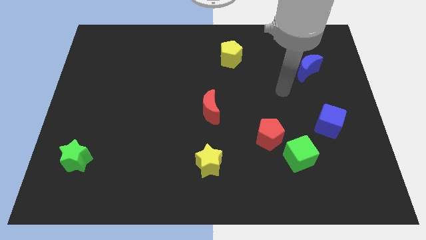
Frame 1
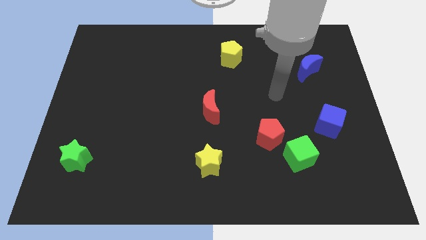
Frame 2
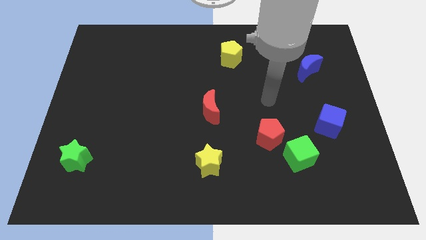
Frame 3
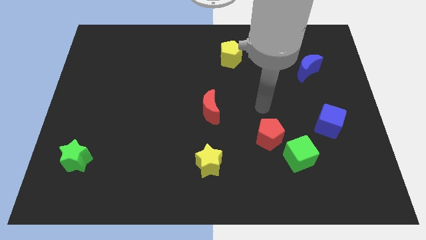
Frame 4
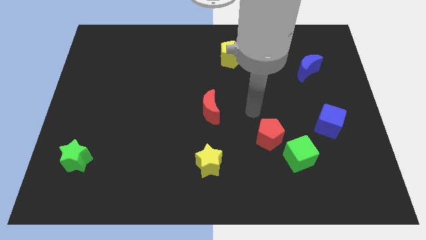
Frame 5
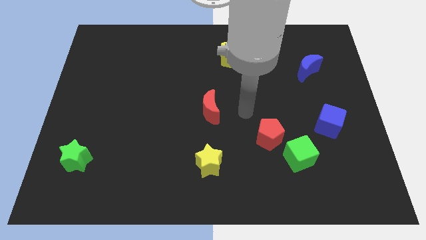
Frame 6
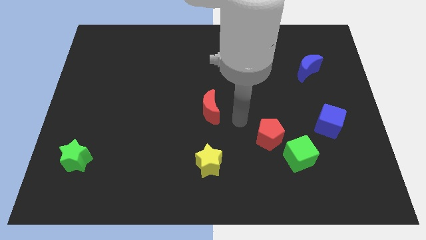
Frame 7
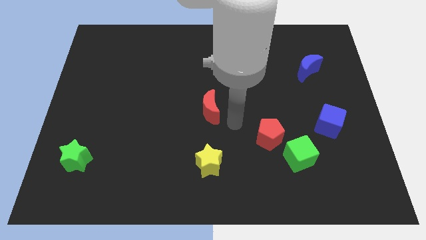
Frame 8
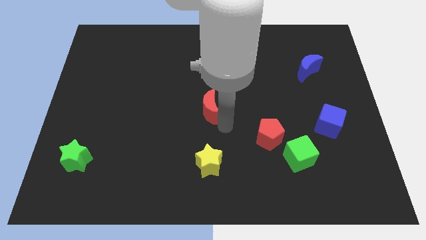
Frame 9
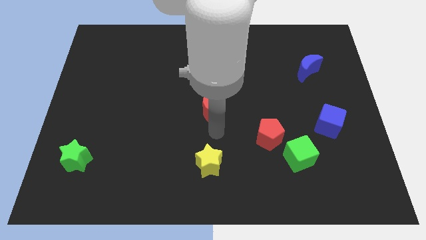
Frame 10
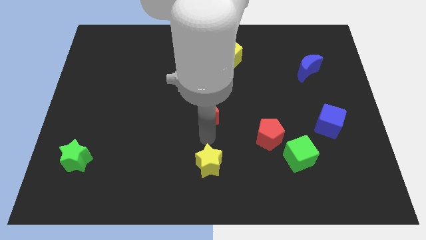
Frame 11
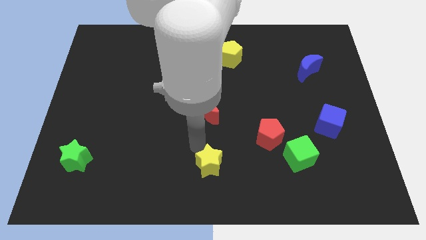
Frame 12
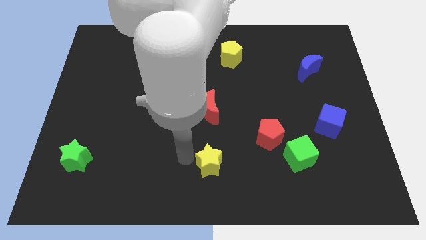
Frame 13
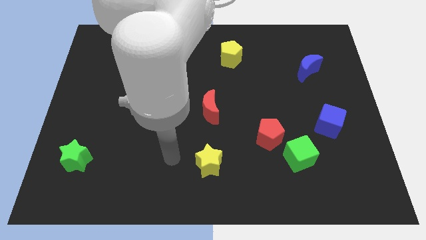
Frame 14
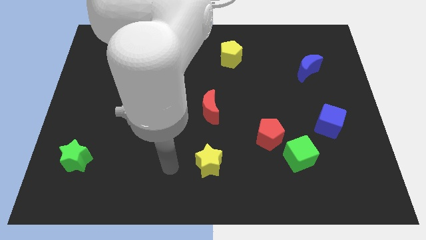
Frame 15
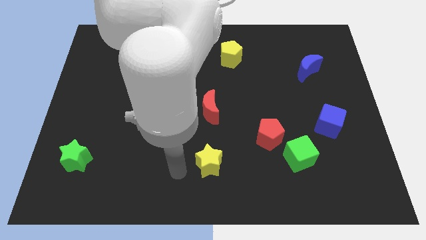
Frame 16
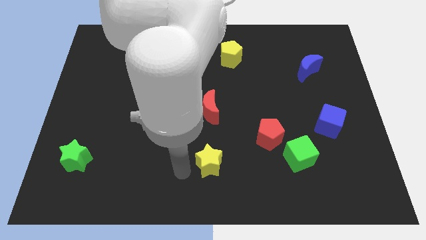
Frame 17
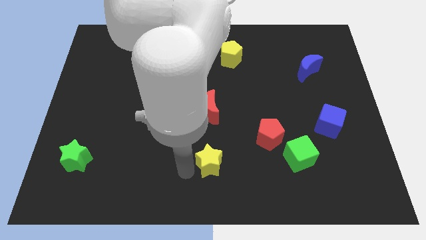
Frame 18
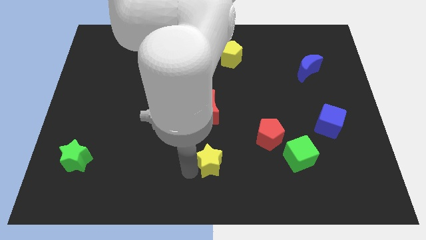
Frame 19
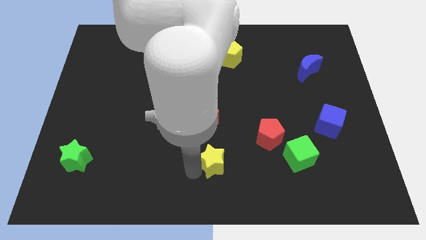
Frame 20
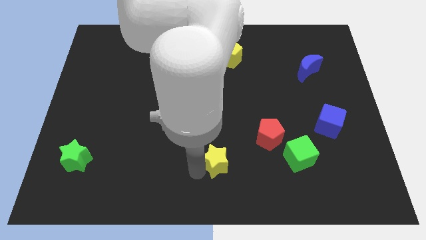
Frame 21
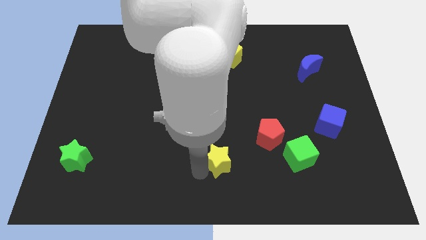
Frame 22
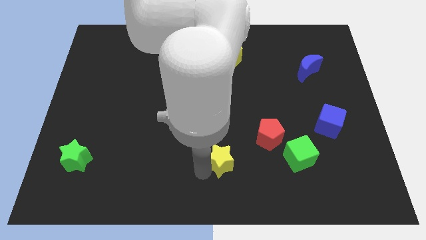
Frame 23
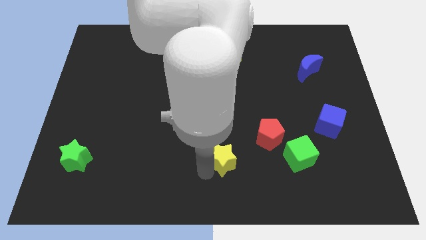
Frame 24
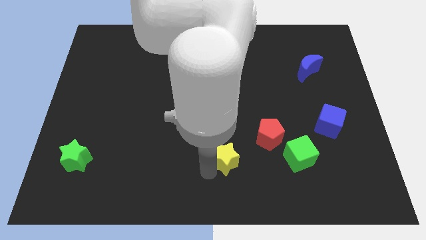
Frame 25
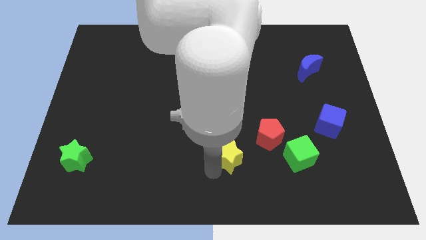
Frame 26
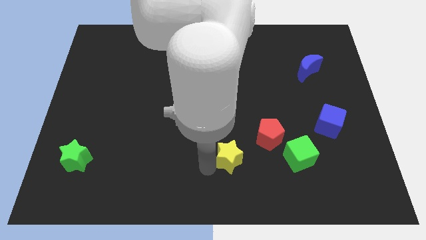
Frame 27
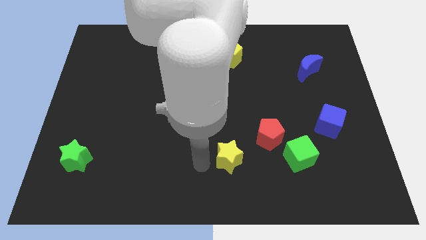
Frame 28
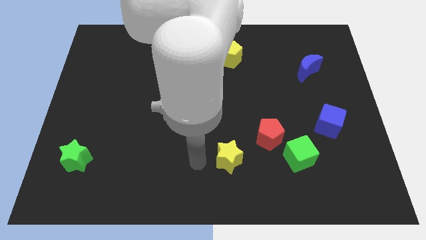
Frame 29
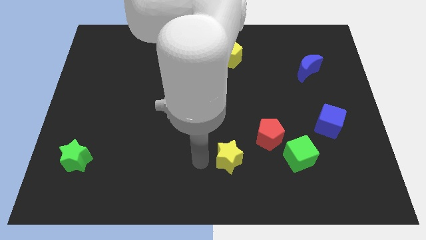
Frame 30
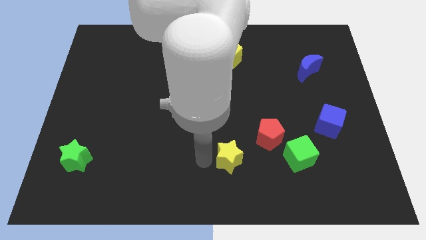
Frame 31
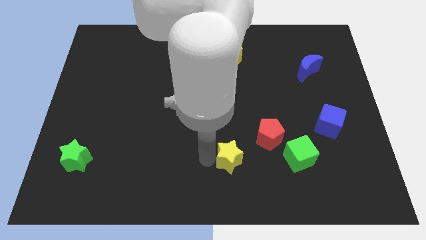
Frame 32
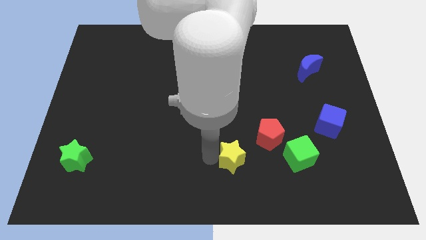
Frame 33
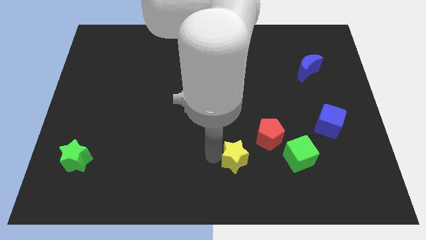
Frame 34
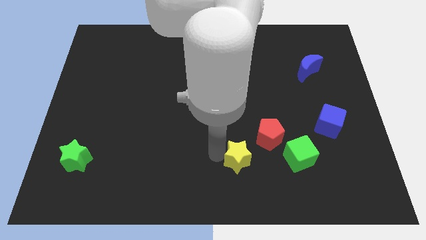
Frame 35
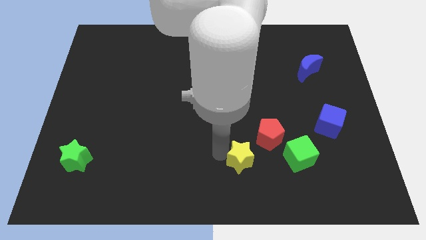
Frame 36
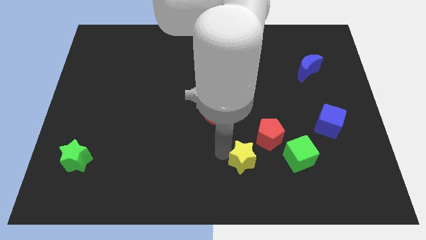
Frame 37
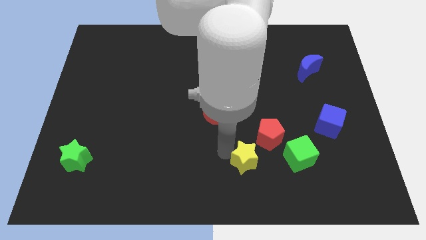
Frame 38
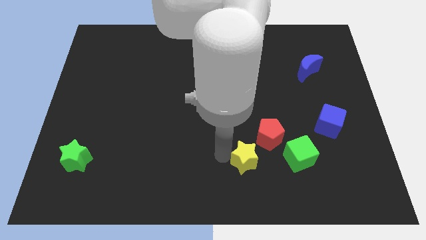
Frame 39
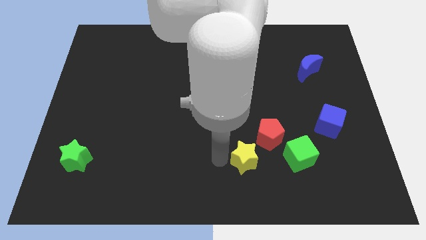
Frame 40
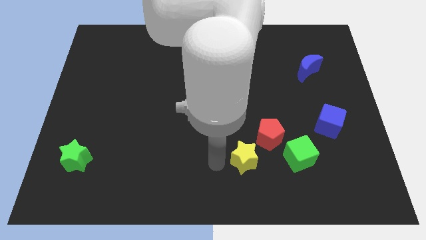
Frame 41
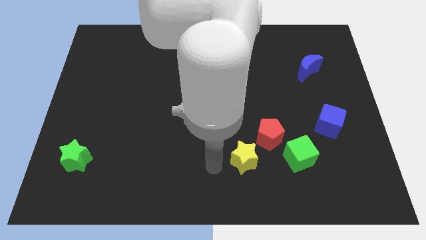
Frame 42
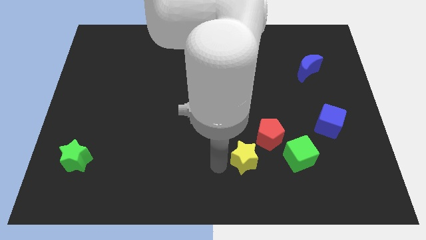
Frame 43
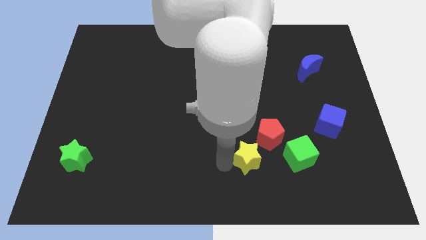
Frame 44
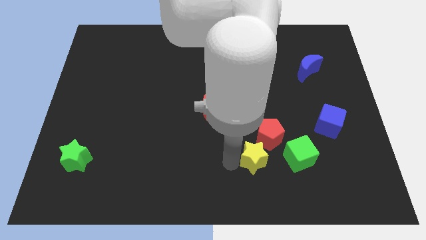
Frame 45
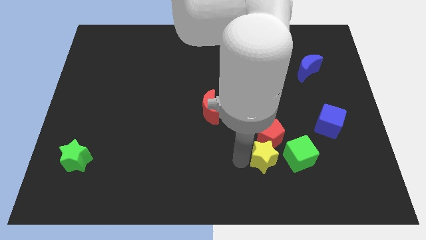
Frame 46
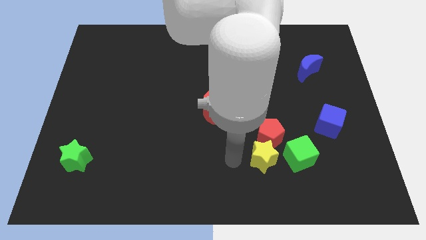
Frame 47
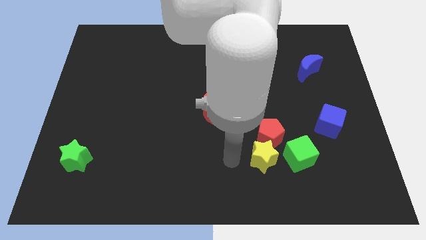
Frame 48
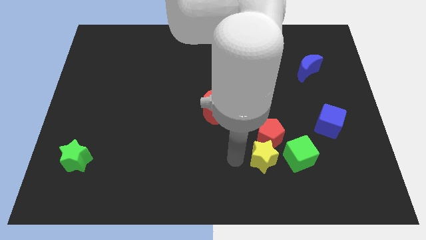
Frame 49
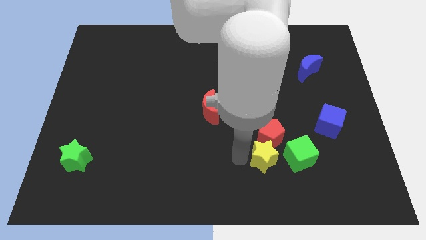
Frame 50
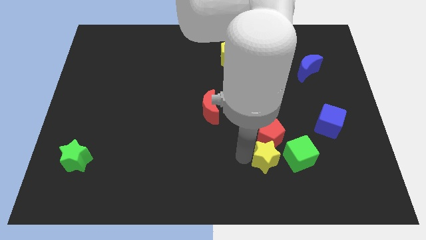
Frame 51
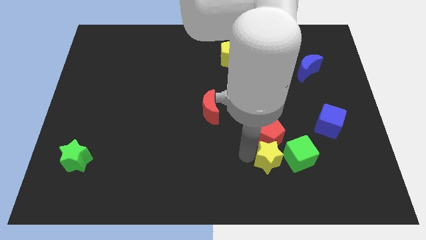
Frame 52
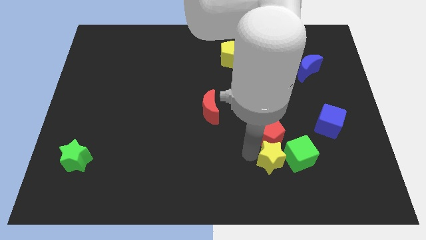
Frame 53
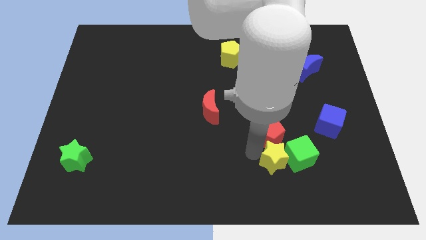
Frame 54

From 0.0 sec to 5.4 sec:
push the yellow star to the green cube

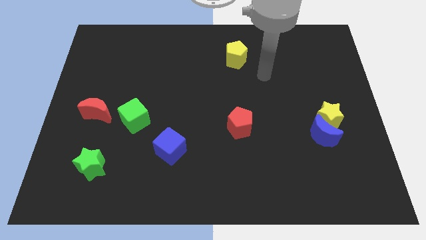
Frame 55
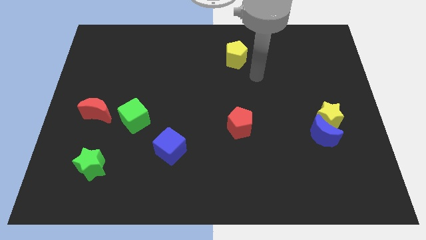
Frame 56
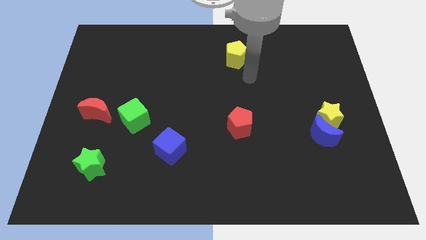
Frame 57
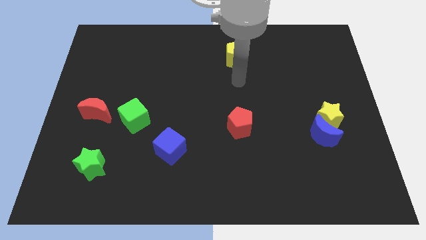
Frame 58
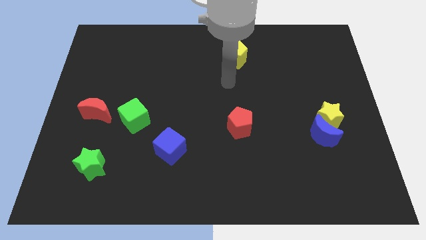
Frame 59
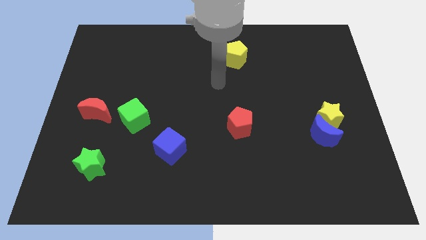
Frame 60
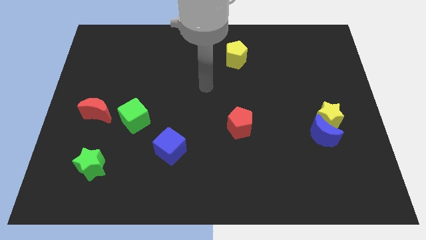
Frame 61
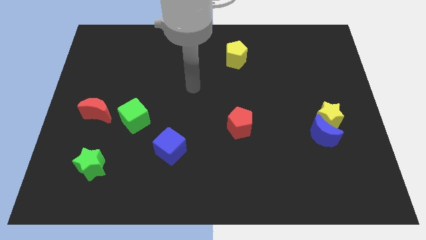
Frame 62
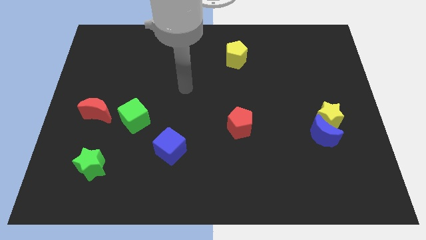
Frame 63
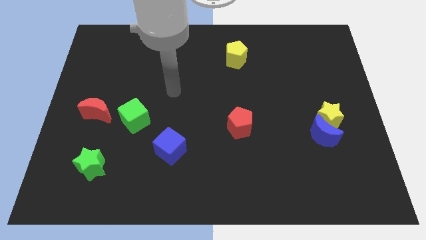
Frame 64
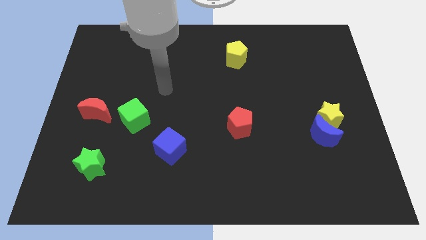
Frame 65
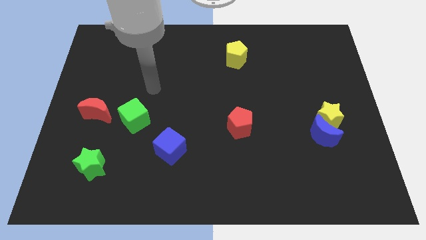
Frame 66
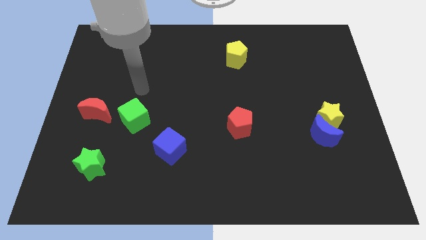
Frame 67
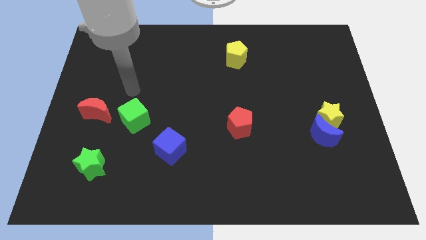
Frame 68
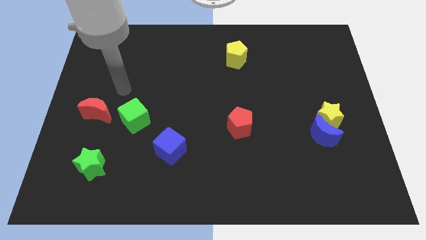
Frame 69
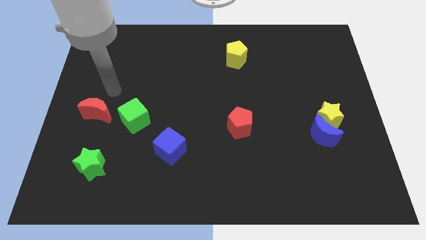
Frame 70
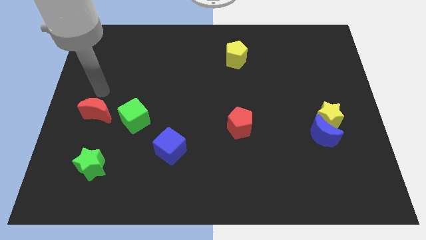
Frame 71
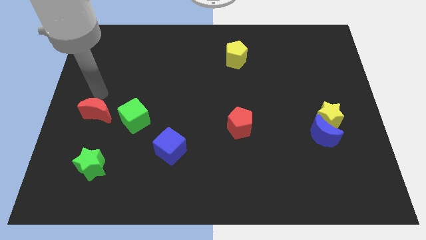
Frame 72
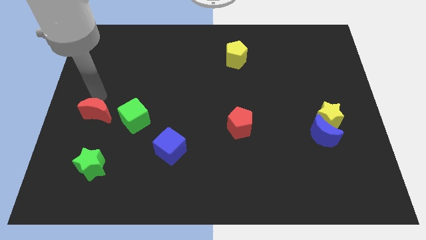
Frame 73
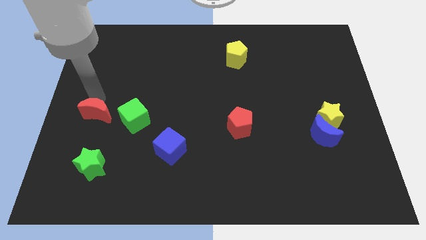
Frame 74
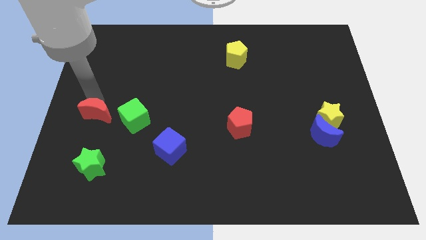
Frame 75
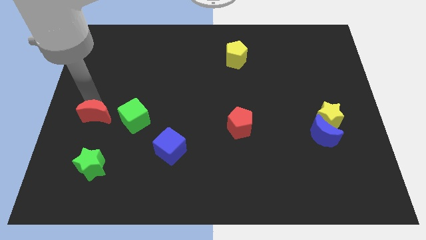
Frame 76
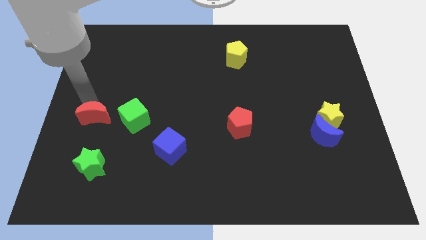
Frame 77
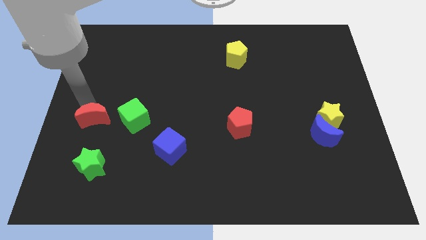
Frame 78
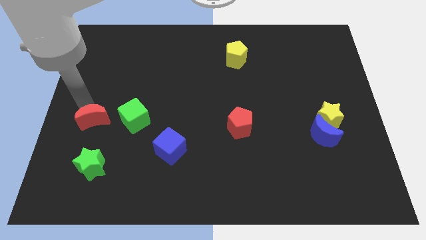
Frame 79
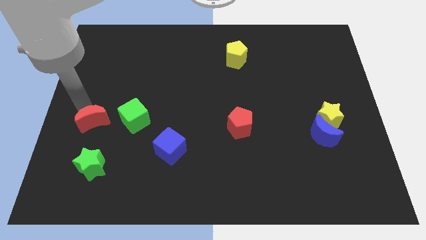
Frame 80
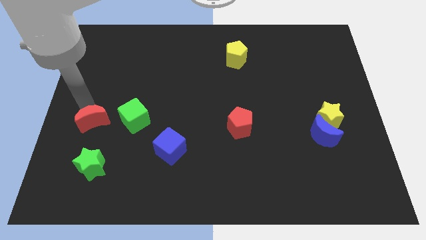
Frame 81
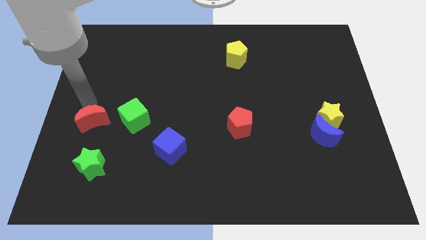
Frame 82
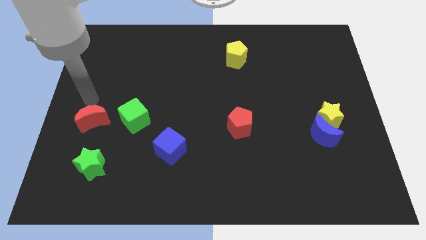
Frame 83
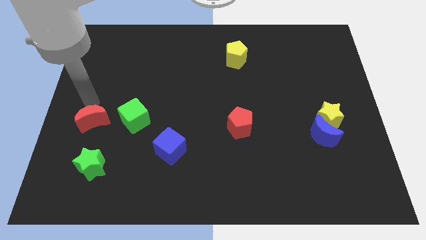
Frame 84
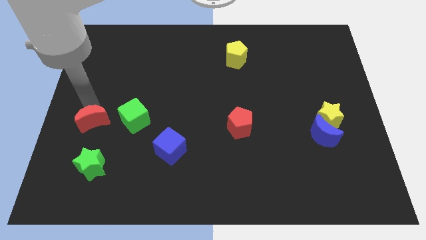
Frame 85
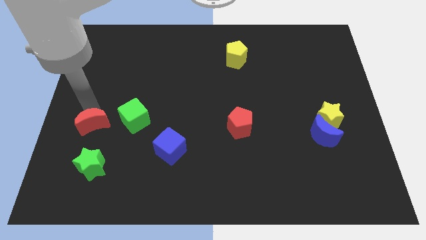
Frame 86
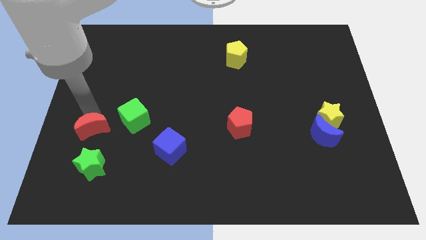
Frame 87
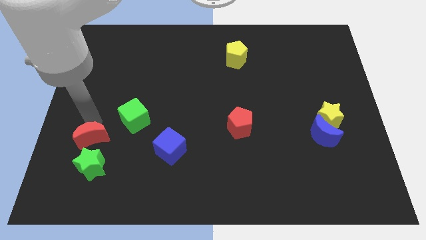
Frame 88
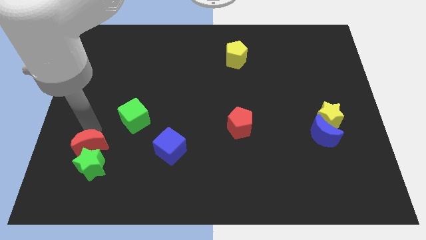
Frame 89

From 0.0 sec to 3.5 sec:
move the red moon to the green star
